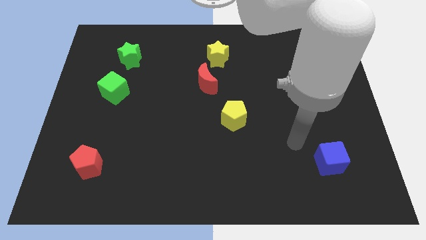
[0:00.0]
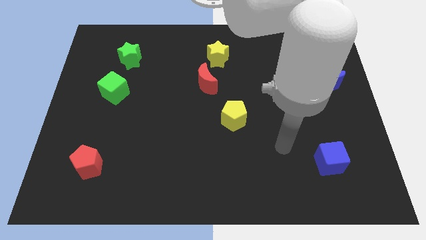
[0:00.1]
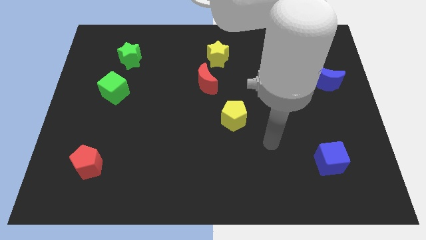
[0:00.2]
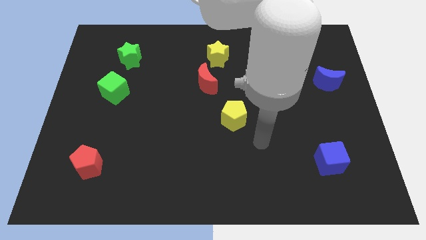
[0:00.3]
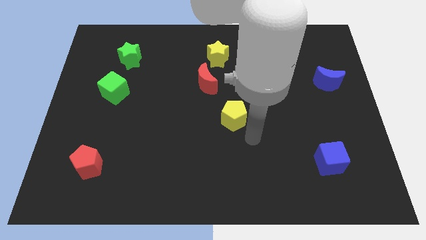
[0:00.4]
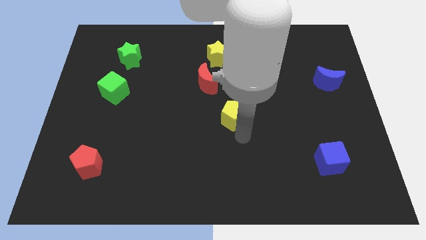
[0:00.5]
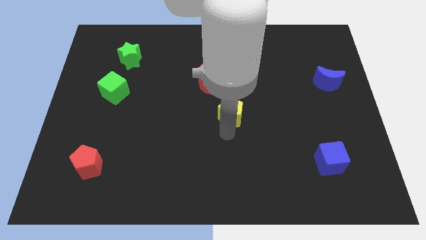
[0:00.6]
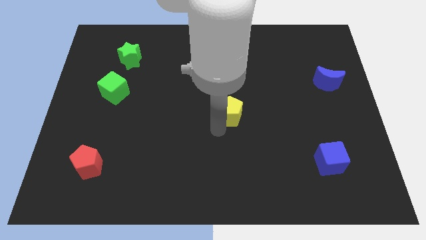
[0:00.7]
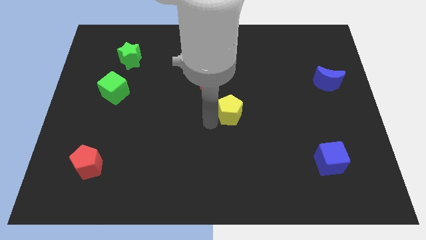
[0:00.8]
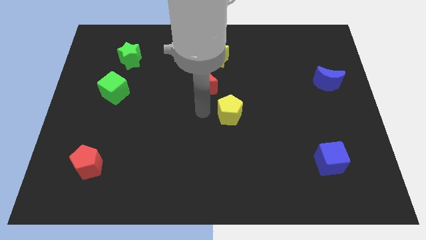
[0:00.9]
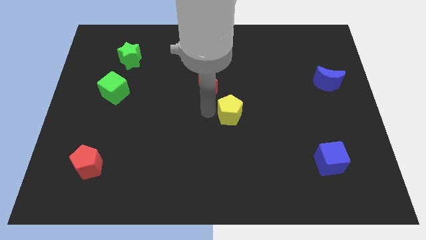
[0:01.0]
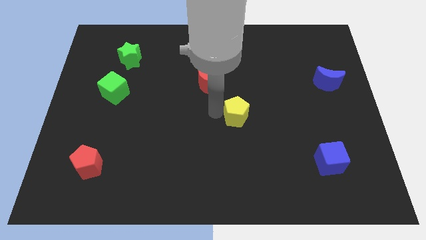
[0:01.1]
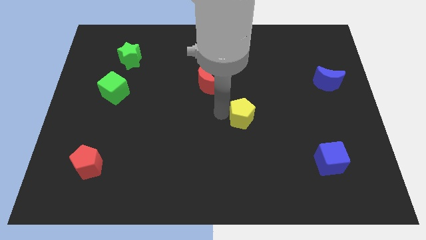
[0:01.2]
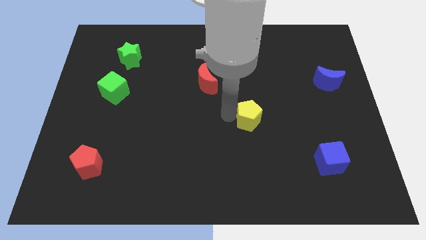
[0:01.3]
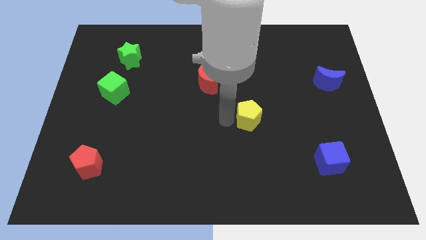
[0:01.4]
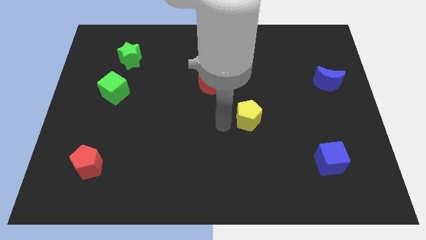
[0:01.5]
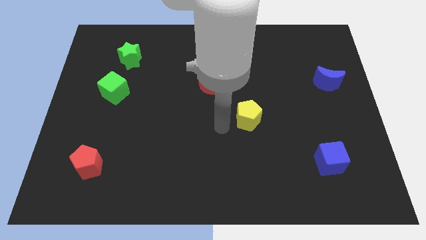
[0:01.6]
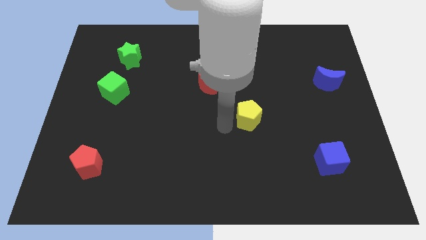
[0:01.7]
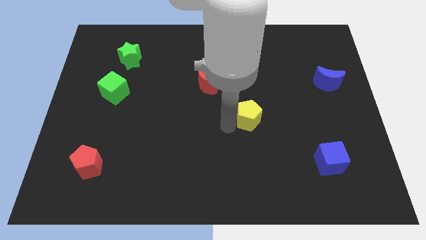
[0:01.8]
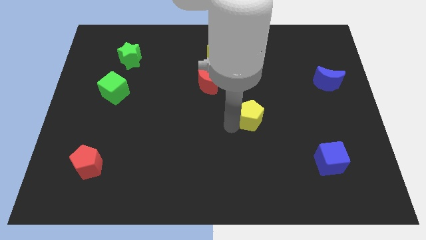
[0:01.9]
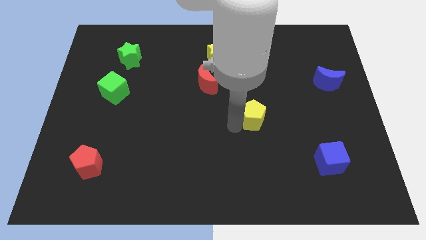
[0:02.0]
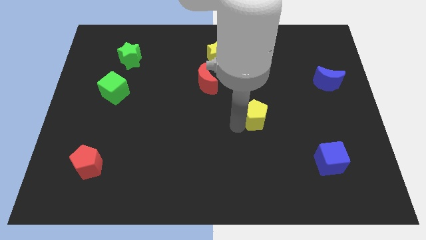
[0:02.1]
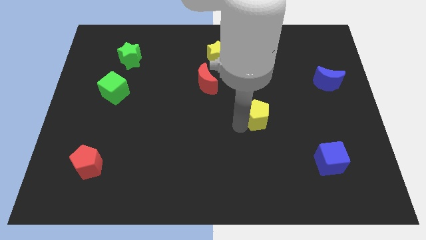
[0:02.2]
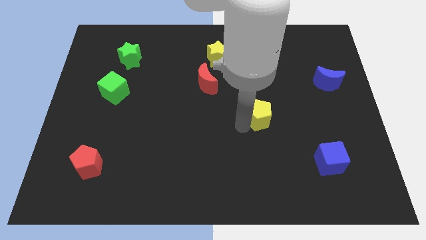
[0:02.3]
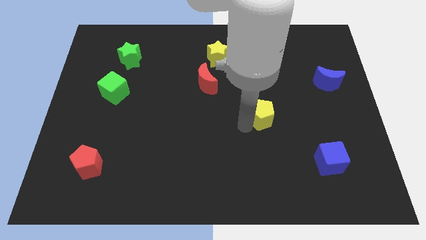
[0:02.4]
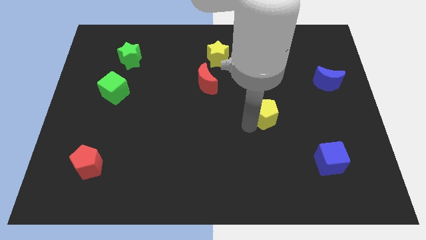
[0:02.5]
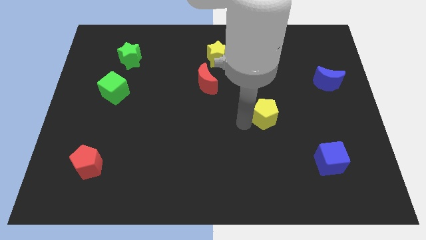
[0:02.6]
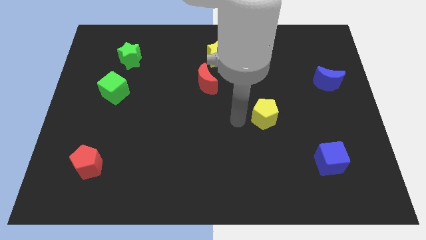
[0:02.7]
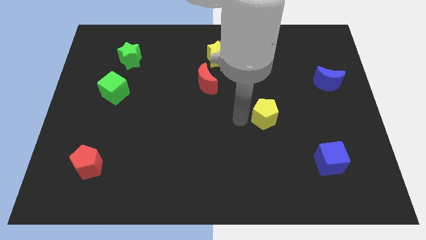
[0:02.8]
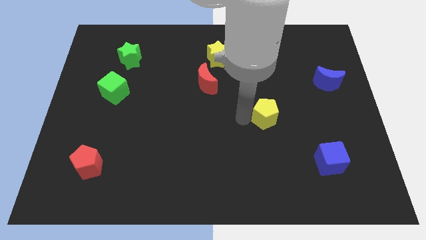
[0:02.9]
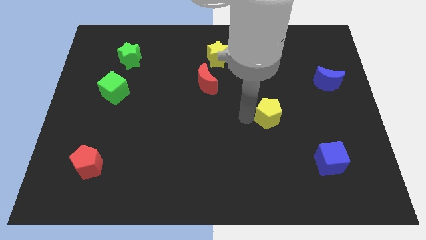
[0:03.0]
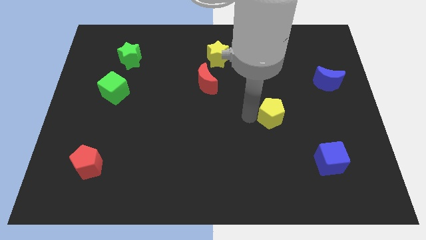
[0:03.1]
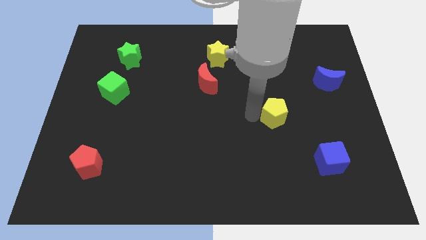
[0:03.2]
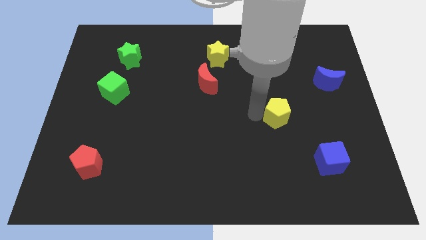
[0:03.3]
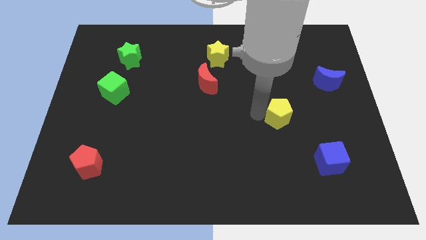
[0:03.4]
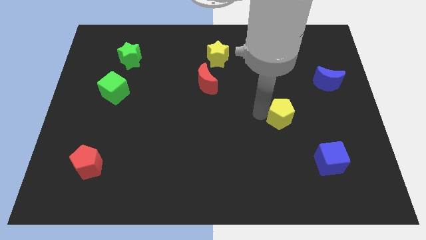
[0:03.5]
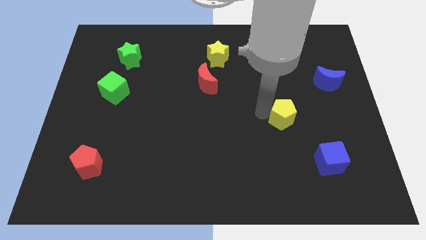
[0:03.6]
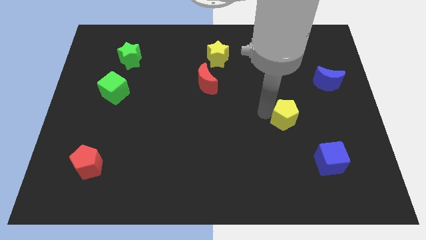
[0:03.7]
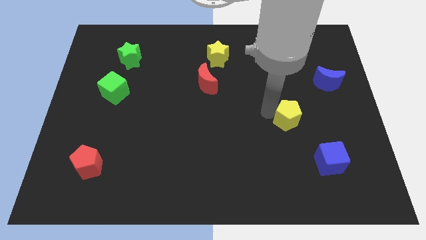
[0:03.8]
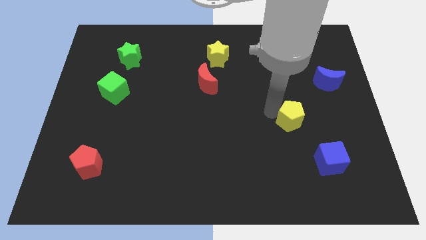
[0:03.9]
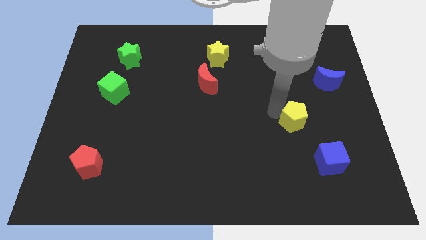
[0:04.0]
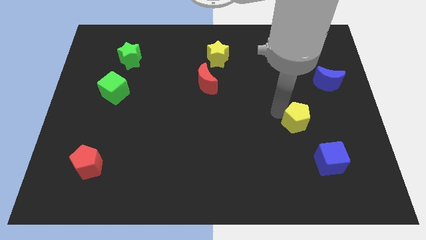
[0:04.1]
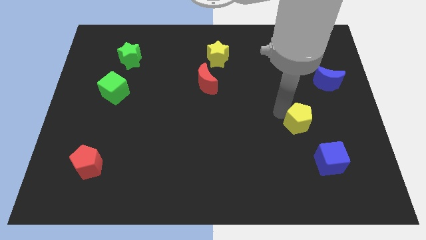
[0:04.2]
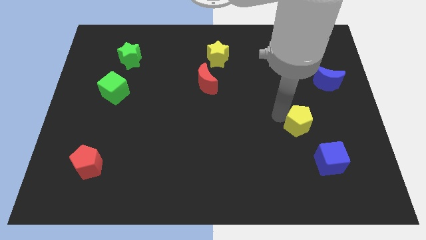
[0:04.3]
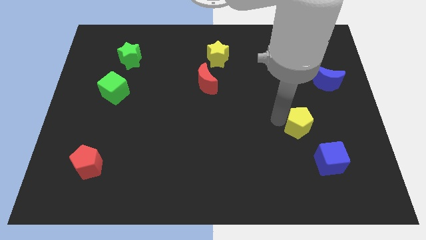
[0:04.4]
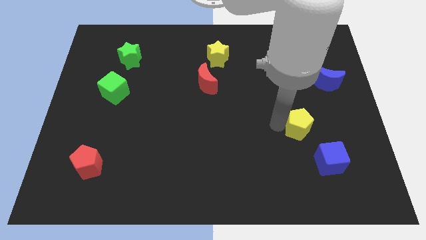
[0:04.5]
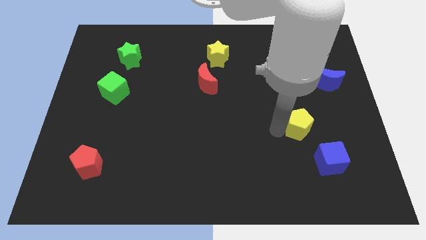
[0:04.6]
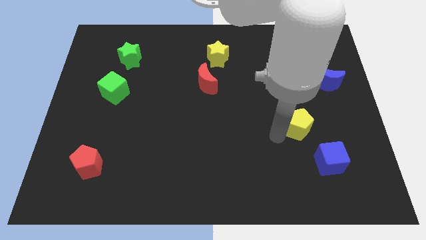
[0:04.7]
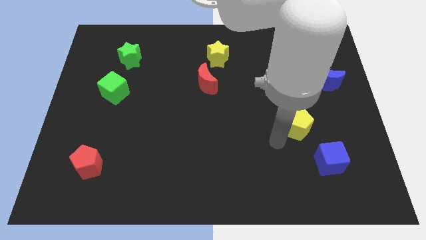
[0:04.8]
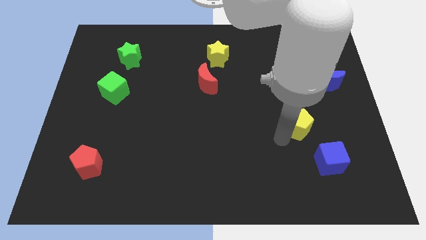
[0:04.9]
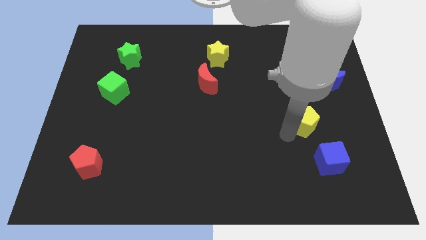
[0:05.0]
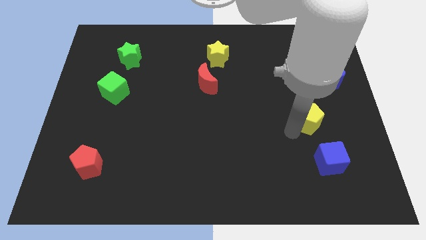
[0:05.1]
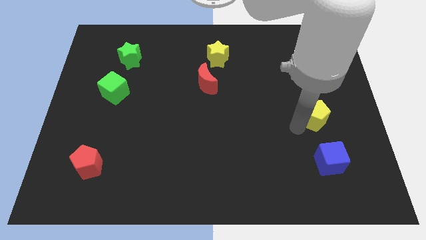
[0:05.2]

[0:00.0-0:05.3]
push the yellow pentagon to the bottom side of the blue moon

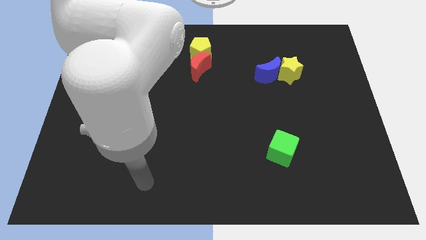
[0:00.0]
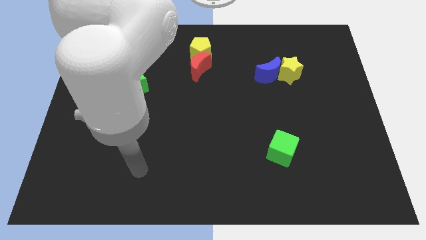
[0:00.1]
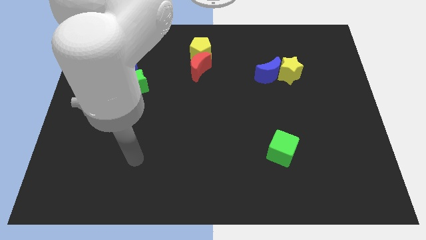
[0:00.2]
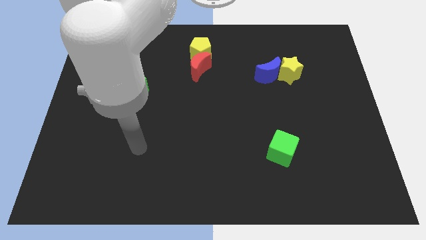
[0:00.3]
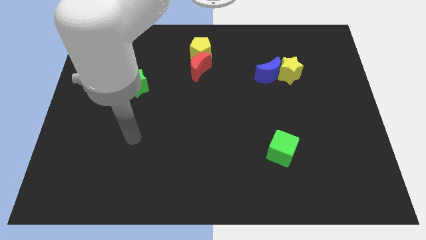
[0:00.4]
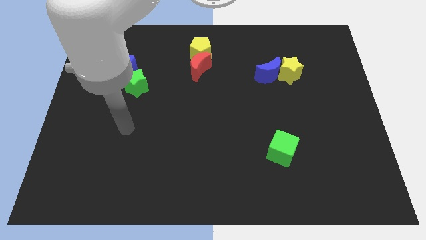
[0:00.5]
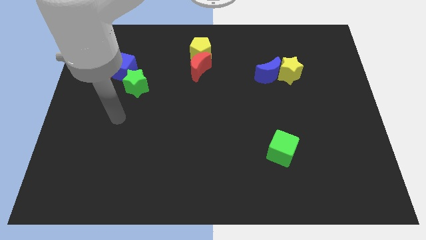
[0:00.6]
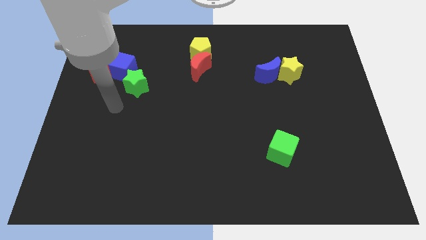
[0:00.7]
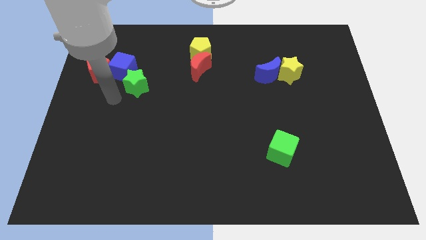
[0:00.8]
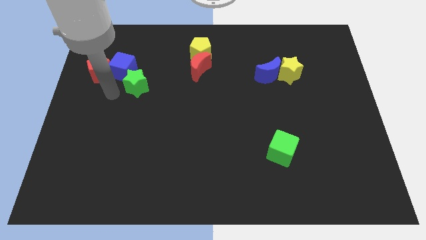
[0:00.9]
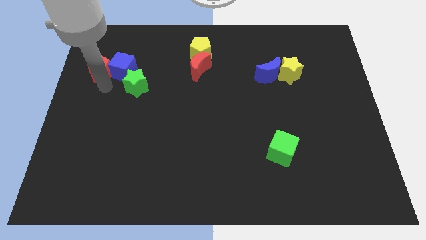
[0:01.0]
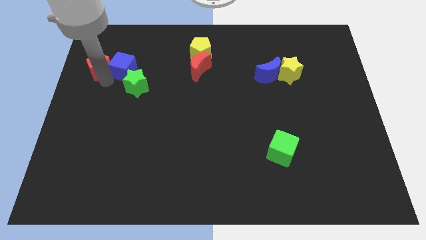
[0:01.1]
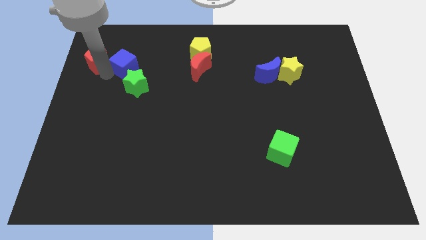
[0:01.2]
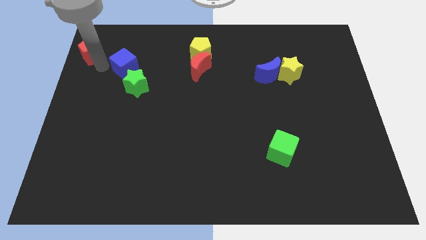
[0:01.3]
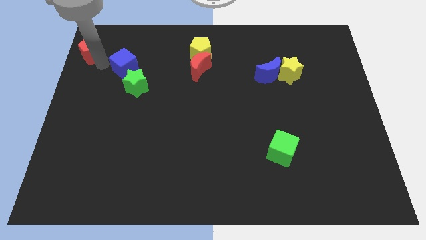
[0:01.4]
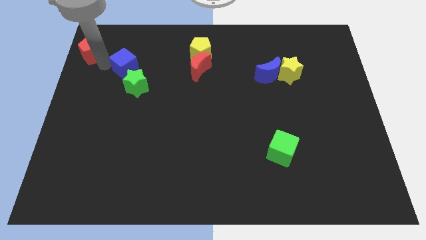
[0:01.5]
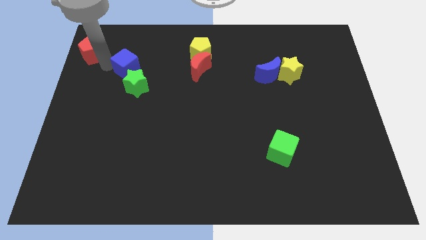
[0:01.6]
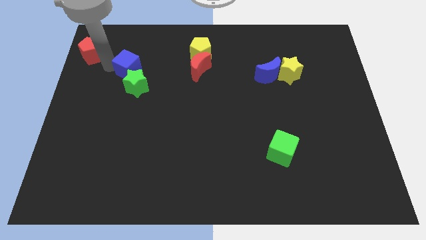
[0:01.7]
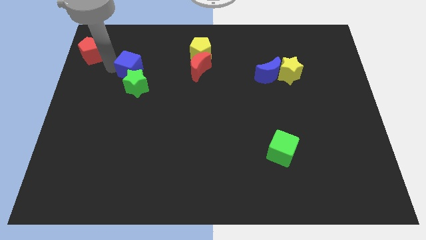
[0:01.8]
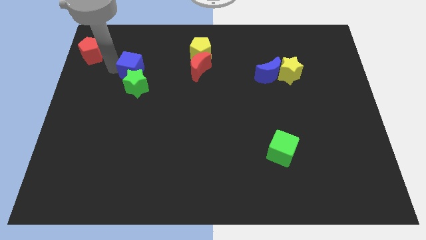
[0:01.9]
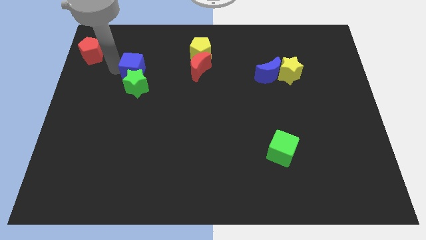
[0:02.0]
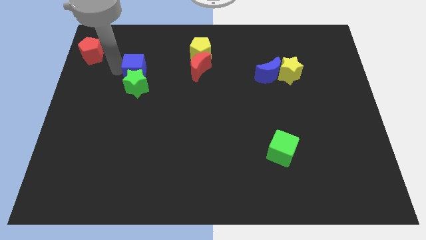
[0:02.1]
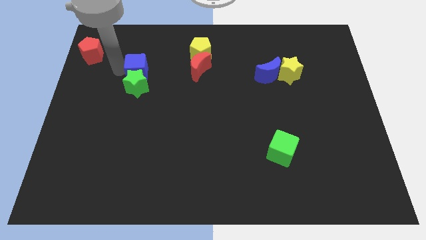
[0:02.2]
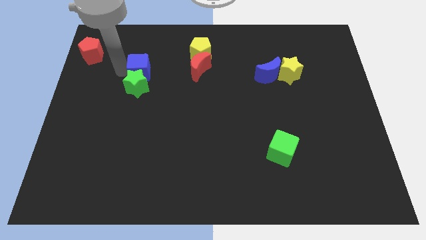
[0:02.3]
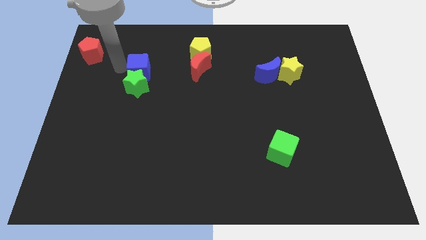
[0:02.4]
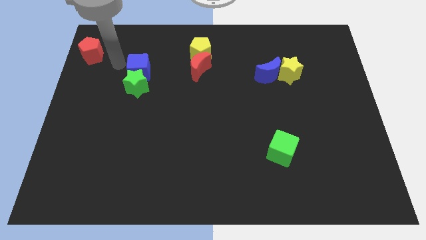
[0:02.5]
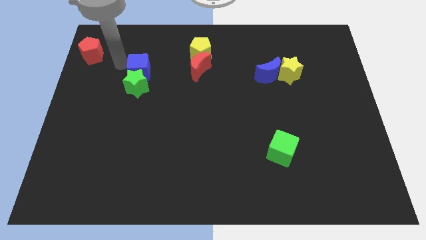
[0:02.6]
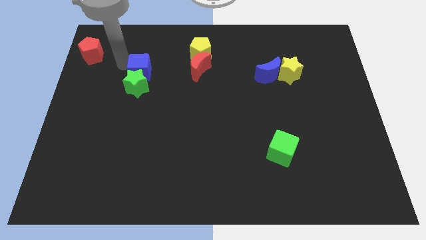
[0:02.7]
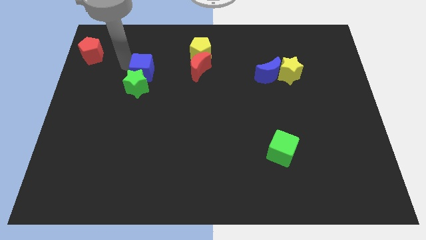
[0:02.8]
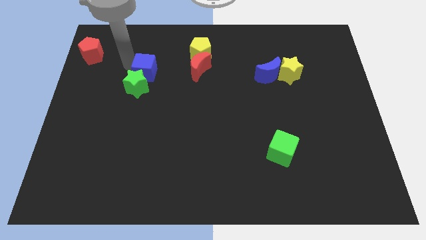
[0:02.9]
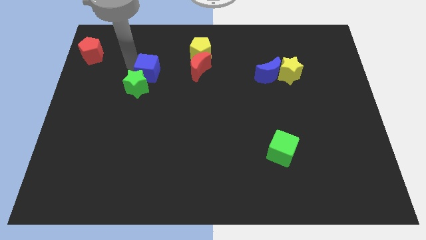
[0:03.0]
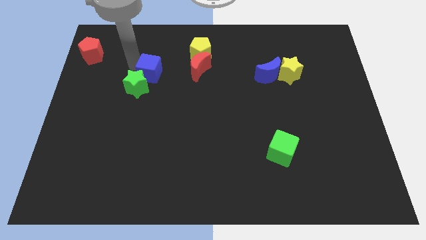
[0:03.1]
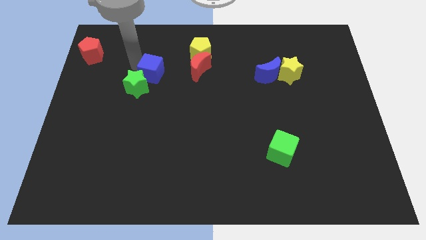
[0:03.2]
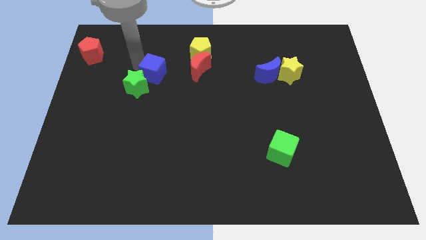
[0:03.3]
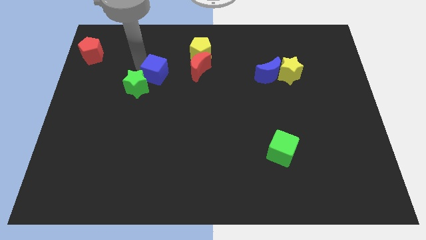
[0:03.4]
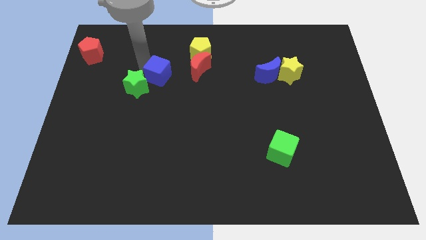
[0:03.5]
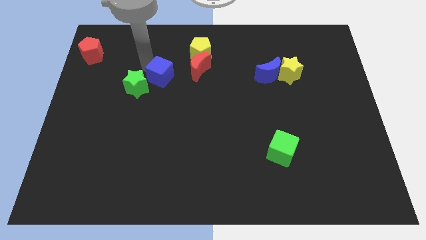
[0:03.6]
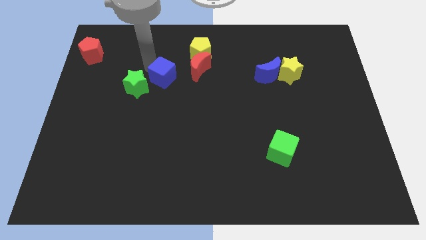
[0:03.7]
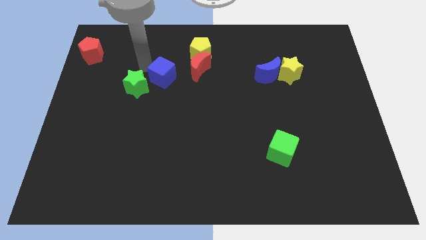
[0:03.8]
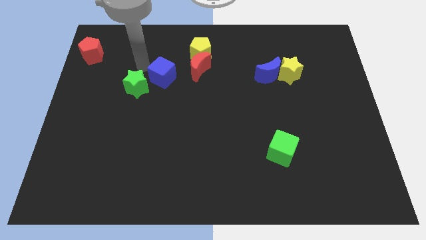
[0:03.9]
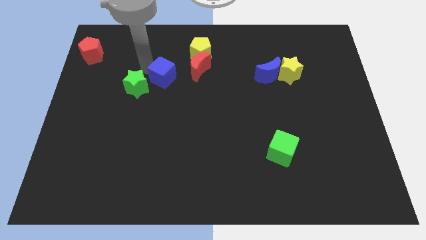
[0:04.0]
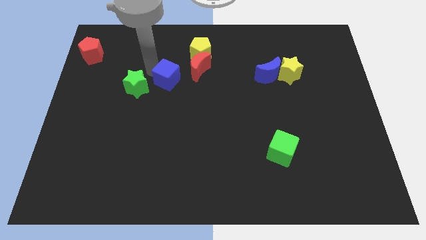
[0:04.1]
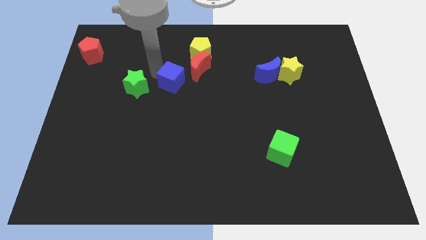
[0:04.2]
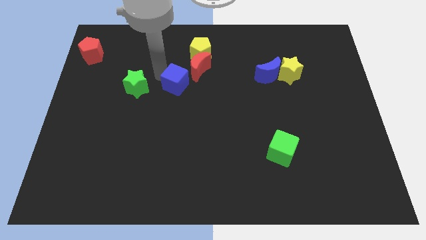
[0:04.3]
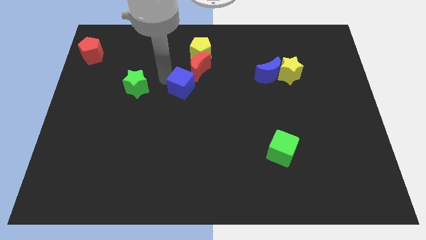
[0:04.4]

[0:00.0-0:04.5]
put the blue cube to the bottom side of the yellow pentagon
